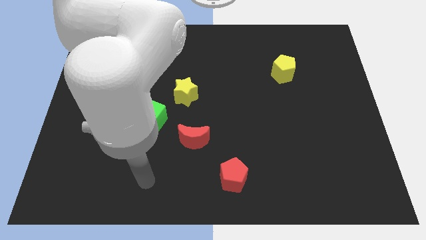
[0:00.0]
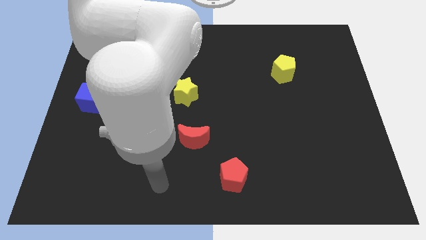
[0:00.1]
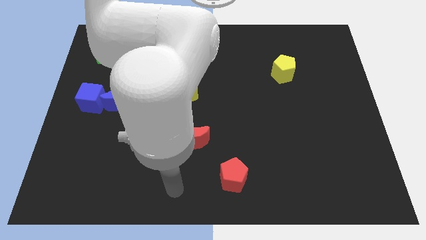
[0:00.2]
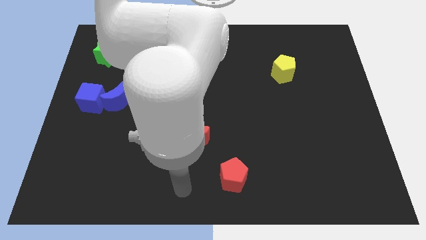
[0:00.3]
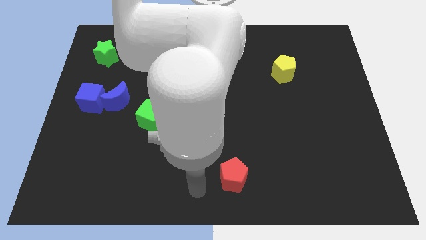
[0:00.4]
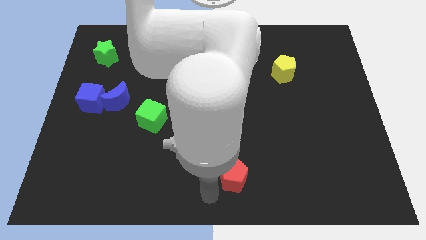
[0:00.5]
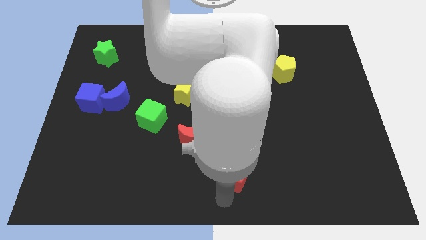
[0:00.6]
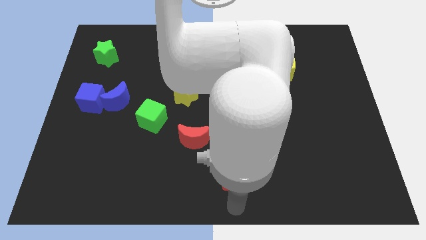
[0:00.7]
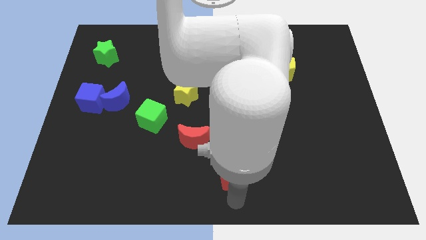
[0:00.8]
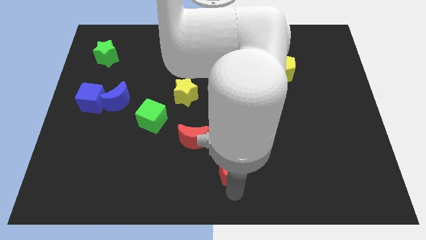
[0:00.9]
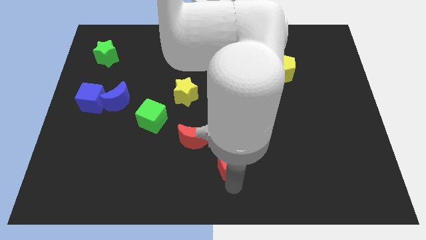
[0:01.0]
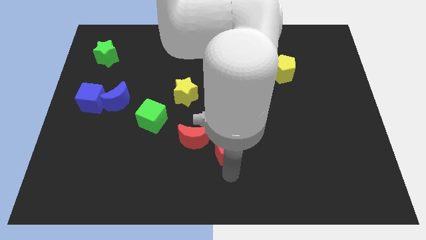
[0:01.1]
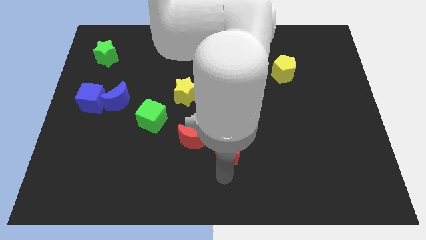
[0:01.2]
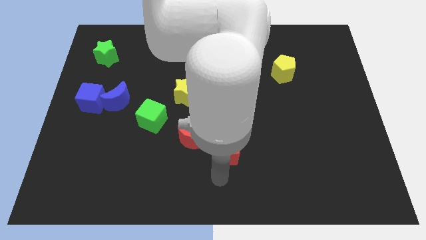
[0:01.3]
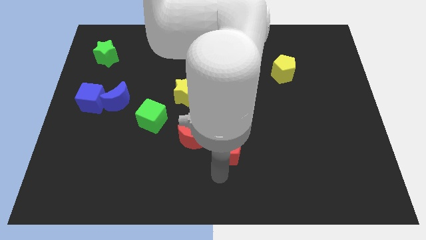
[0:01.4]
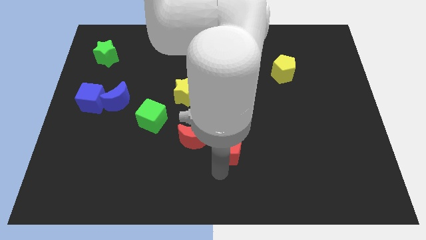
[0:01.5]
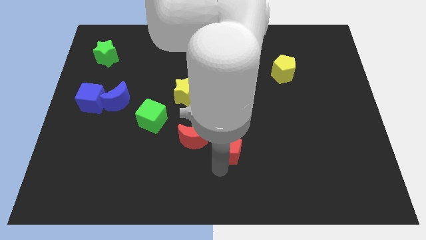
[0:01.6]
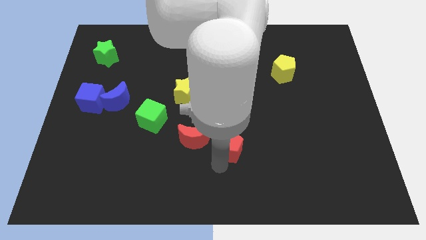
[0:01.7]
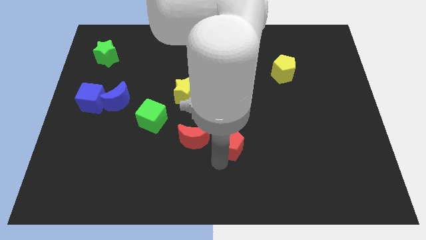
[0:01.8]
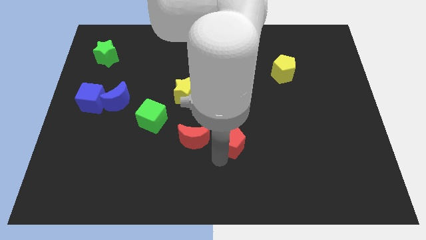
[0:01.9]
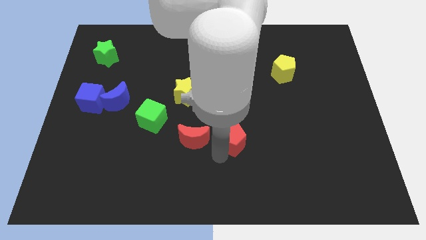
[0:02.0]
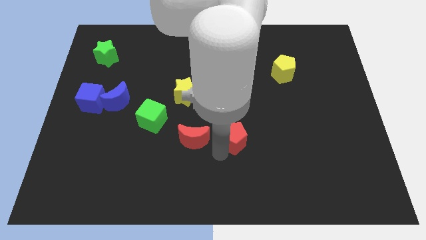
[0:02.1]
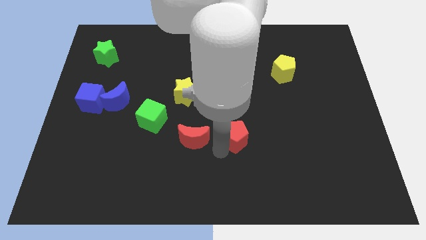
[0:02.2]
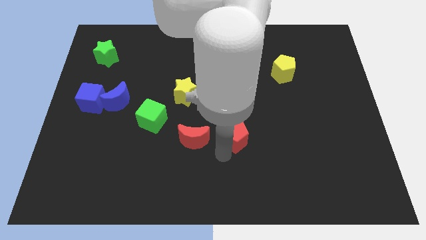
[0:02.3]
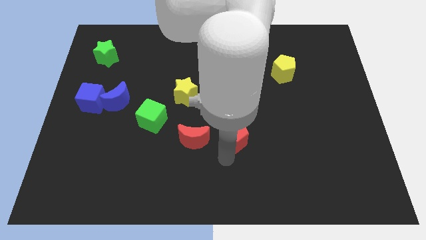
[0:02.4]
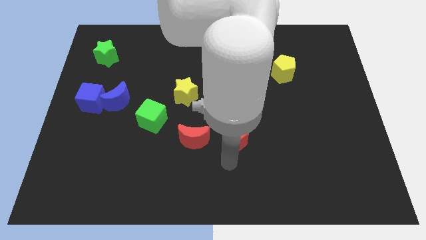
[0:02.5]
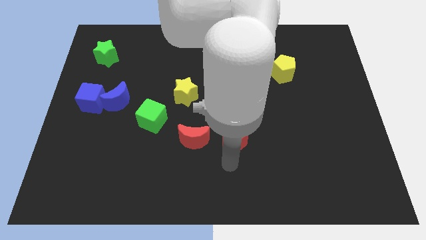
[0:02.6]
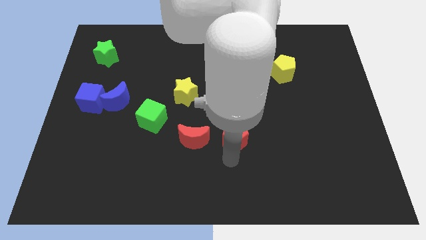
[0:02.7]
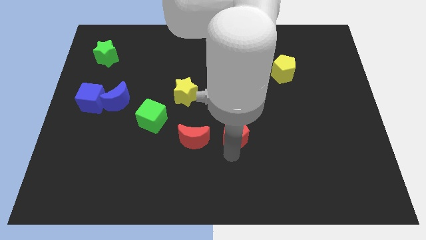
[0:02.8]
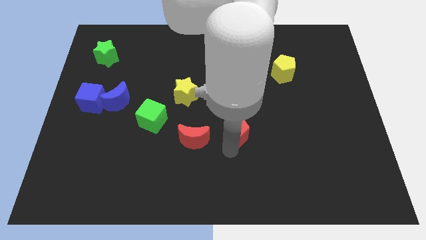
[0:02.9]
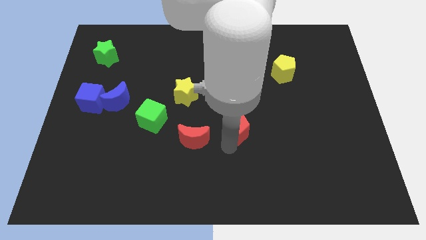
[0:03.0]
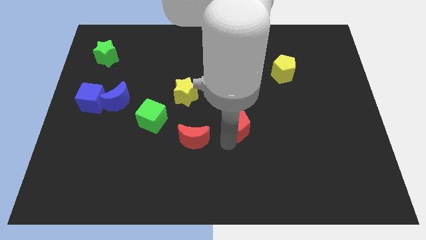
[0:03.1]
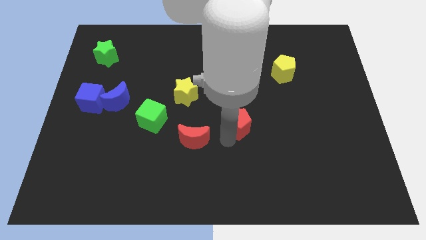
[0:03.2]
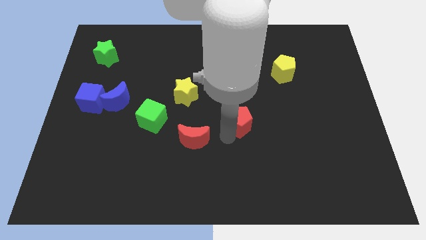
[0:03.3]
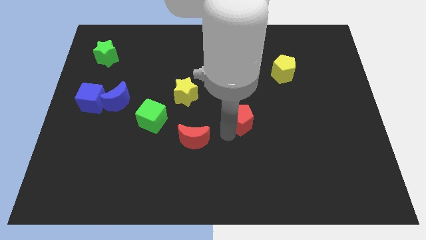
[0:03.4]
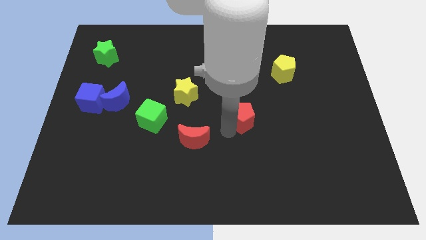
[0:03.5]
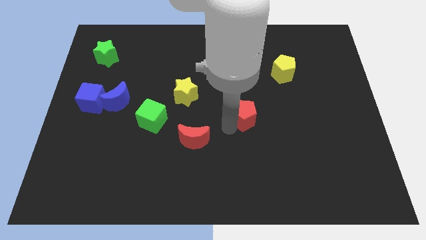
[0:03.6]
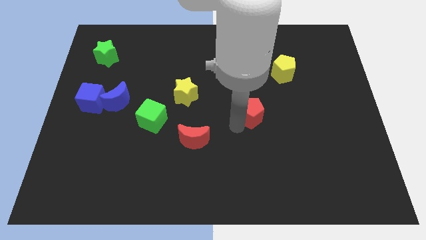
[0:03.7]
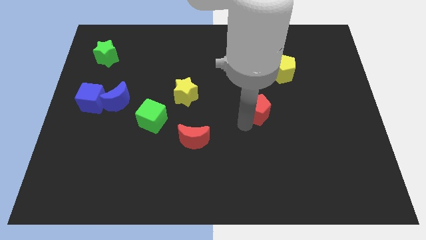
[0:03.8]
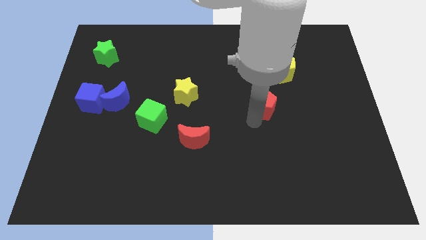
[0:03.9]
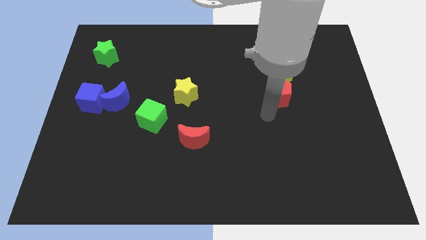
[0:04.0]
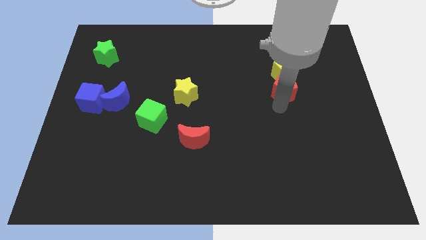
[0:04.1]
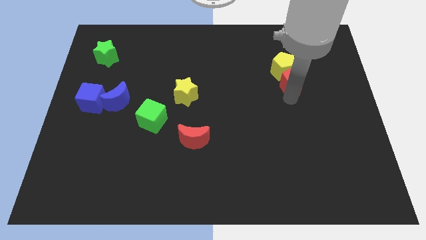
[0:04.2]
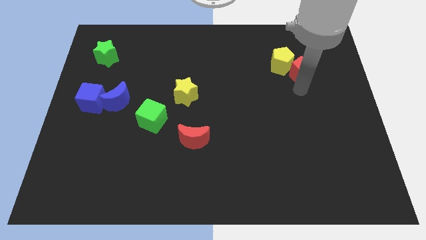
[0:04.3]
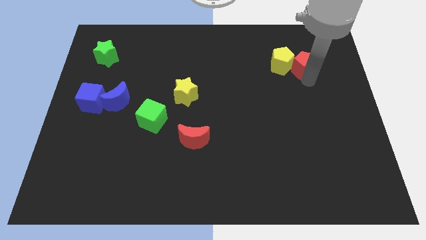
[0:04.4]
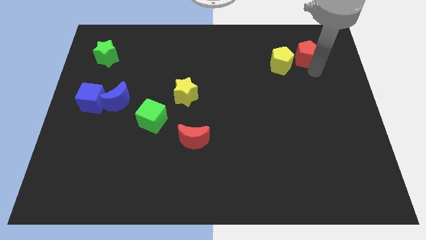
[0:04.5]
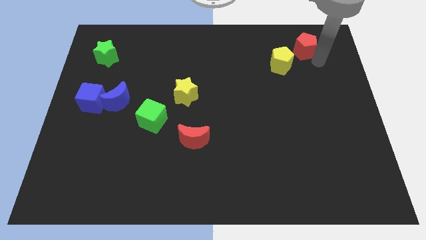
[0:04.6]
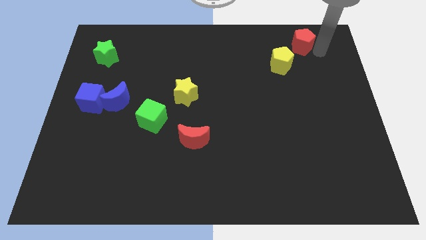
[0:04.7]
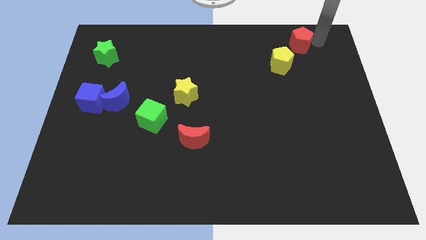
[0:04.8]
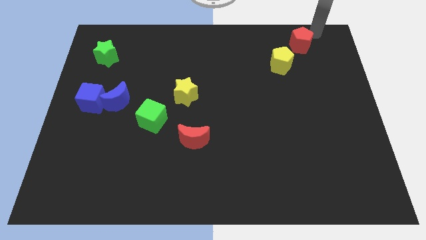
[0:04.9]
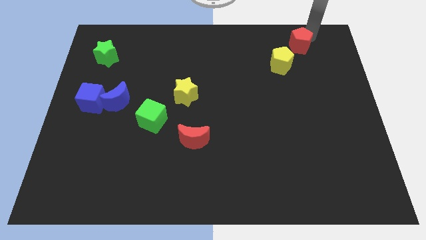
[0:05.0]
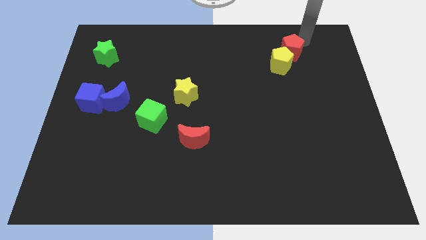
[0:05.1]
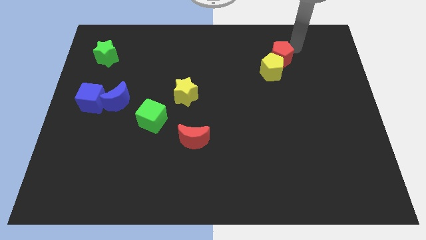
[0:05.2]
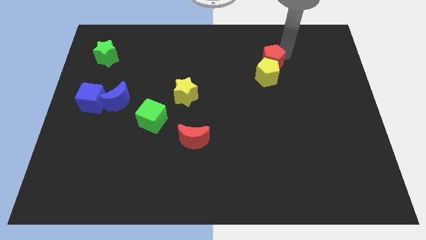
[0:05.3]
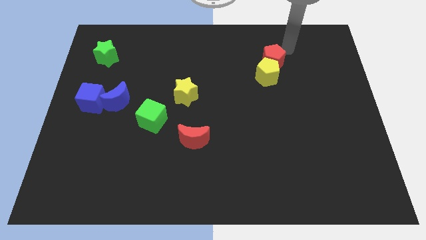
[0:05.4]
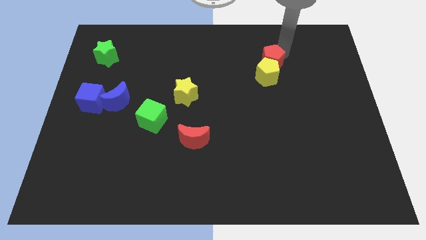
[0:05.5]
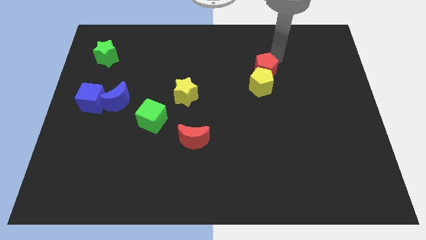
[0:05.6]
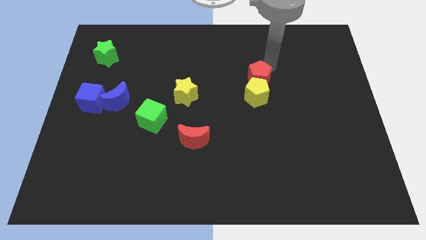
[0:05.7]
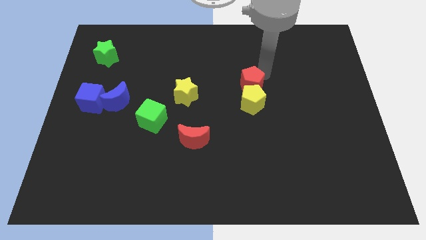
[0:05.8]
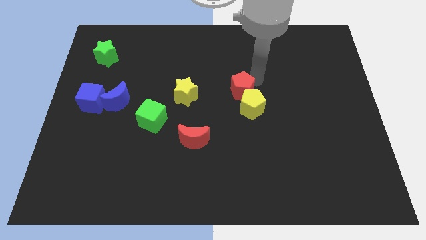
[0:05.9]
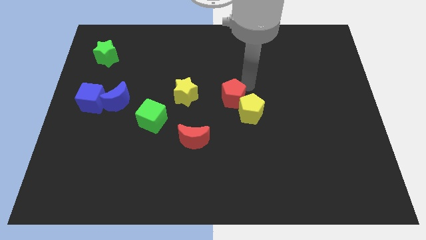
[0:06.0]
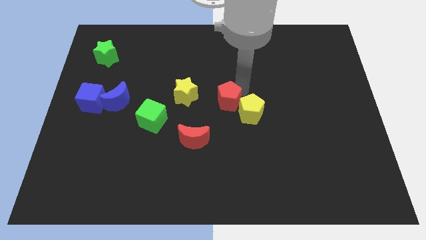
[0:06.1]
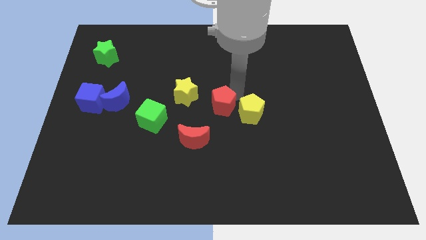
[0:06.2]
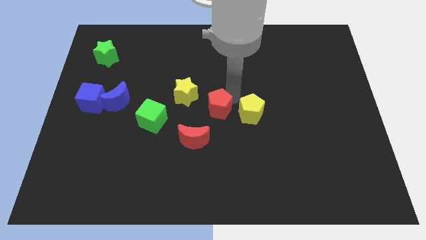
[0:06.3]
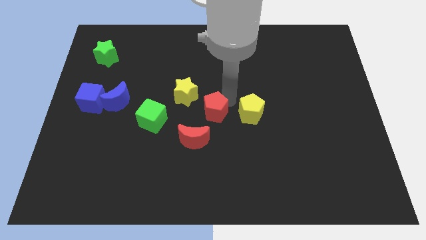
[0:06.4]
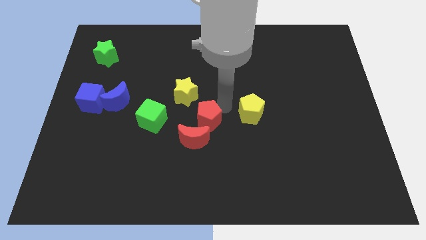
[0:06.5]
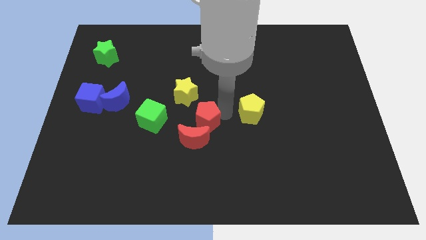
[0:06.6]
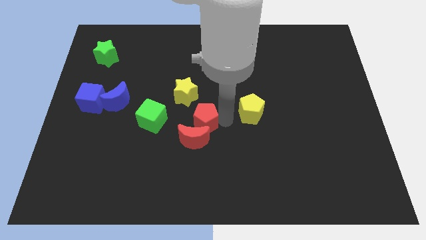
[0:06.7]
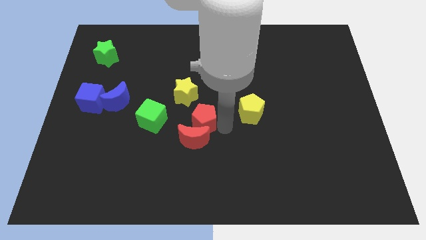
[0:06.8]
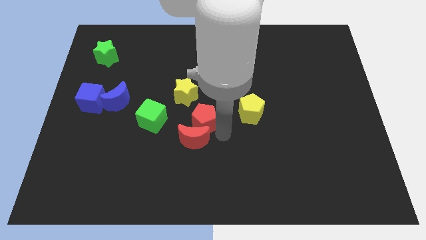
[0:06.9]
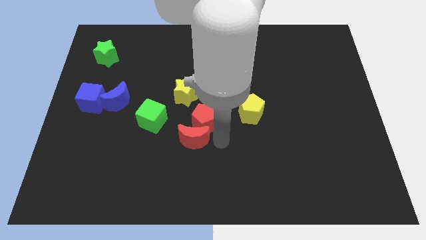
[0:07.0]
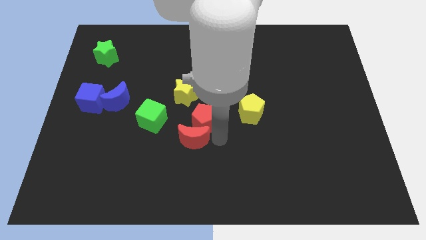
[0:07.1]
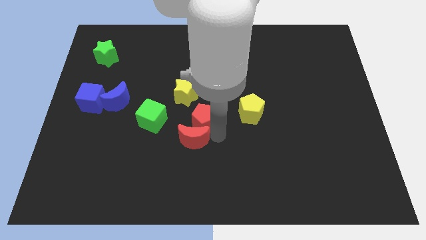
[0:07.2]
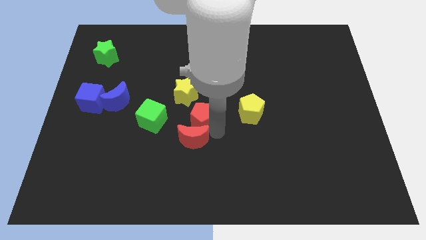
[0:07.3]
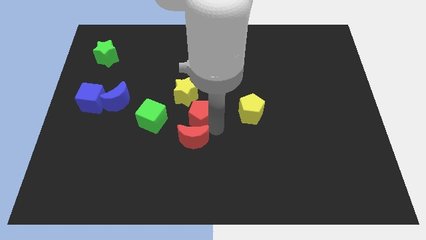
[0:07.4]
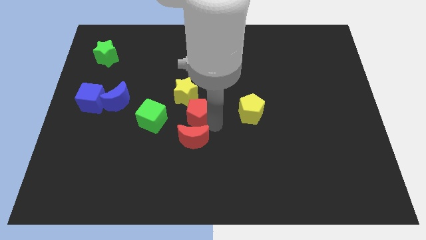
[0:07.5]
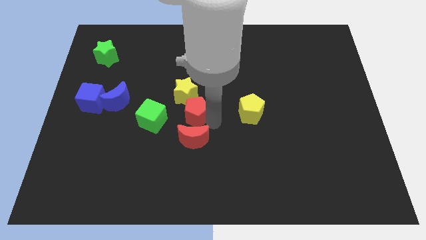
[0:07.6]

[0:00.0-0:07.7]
slide the red pentagon close to the yellow star
